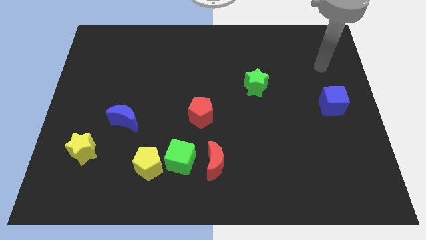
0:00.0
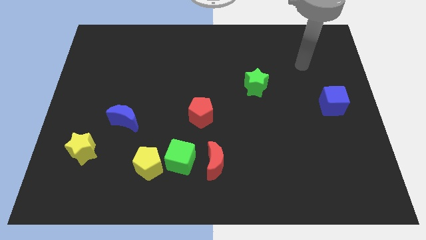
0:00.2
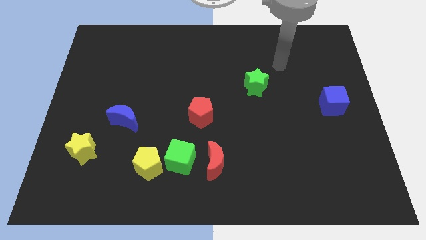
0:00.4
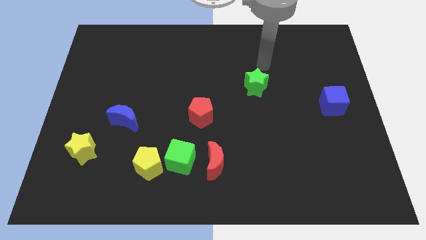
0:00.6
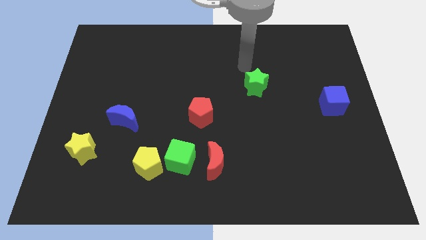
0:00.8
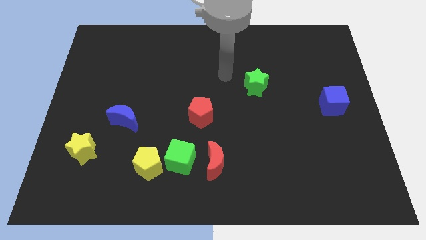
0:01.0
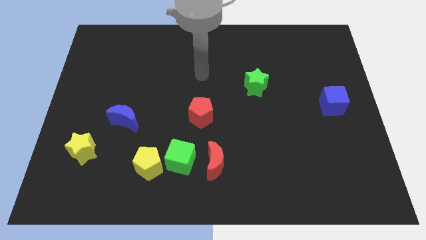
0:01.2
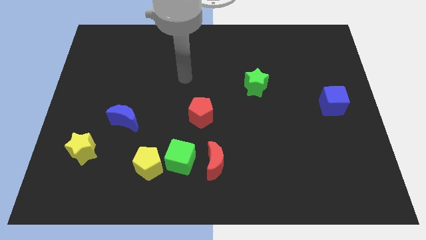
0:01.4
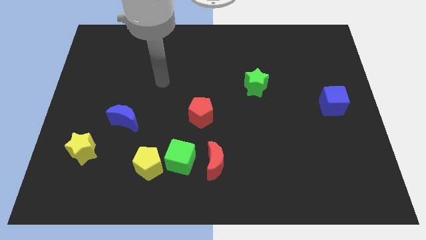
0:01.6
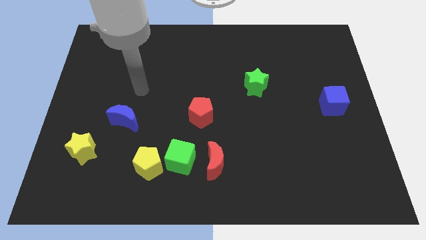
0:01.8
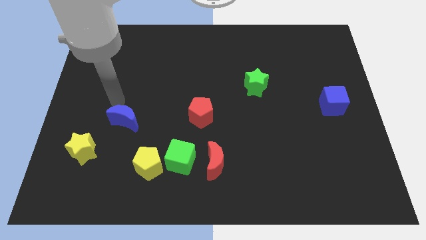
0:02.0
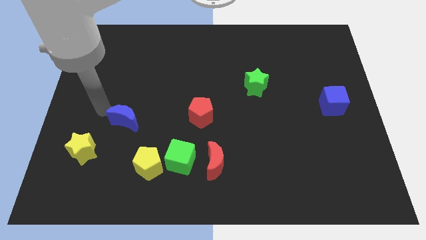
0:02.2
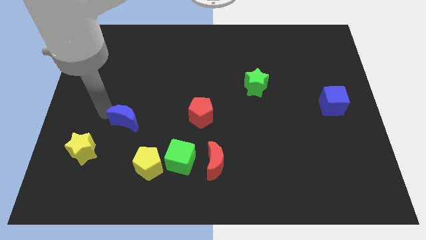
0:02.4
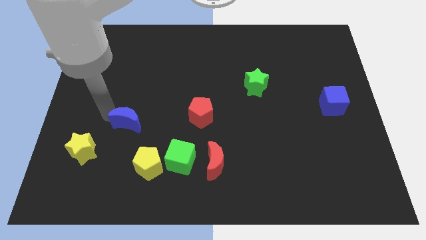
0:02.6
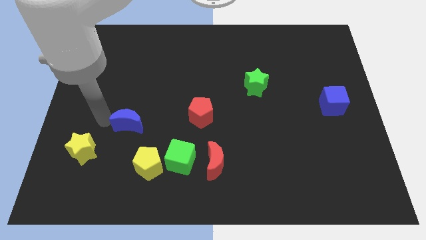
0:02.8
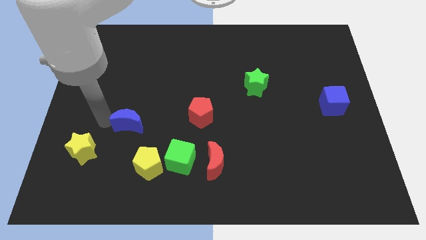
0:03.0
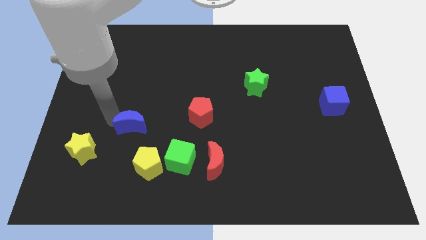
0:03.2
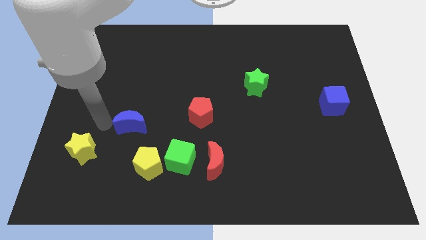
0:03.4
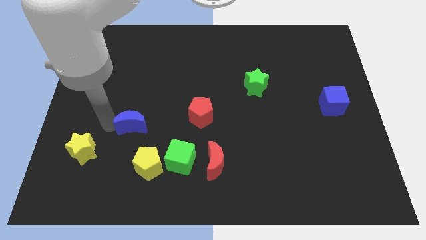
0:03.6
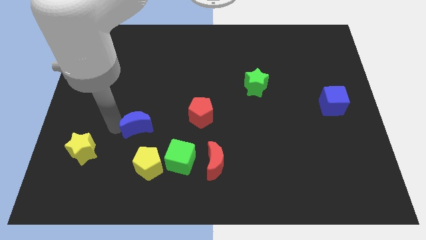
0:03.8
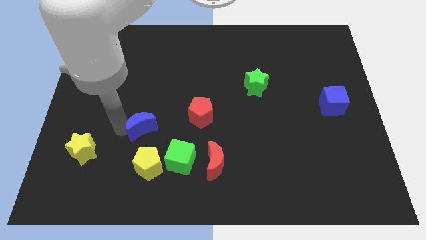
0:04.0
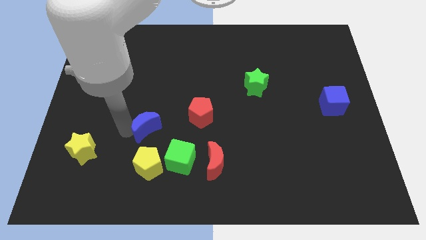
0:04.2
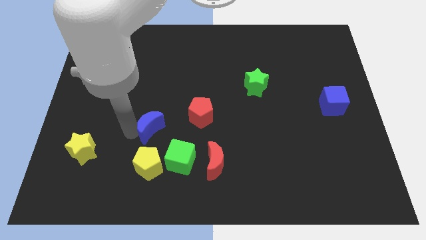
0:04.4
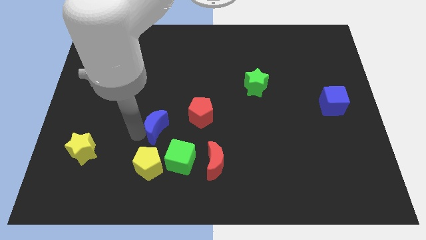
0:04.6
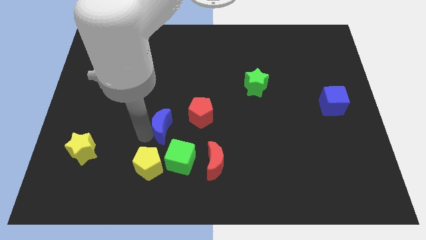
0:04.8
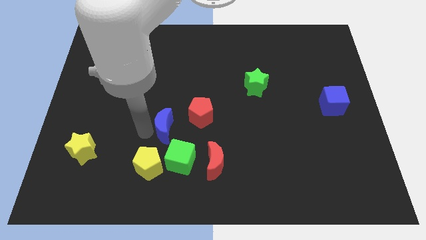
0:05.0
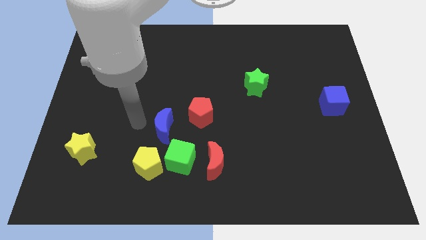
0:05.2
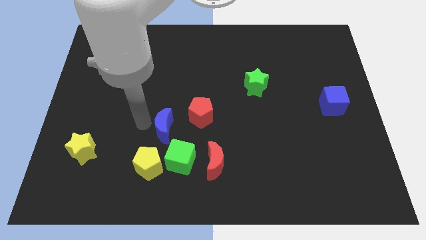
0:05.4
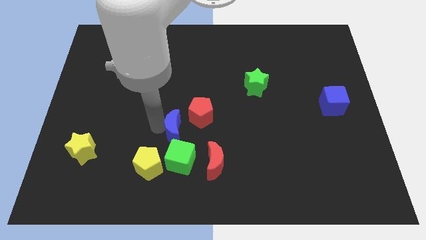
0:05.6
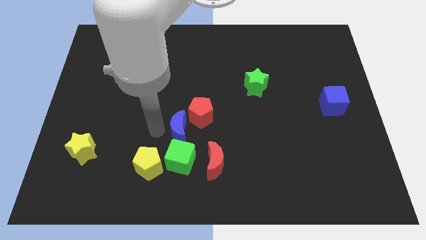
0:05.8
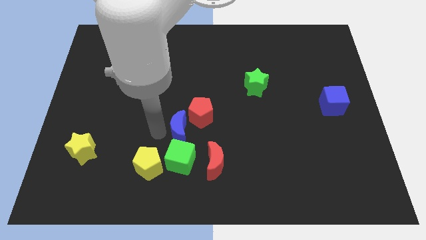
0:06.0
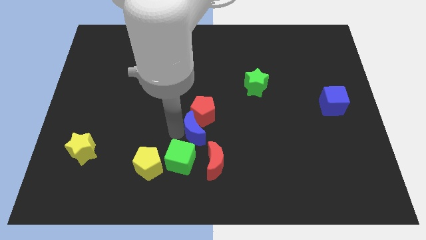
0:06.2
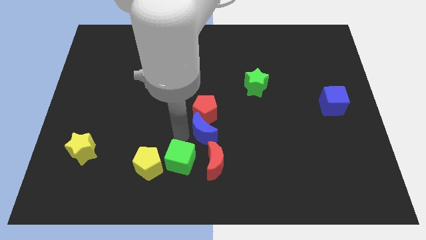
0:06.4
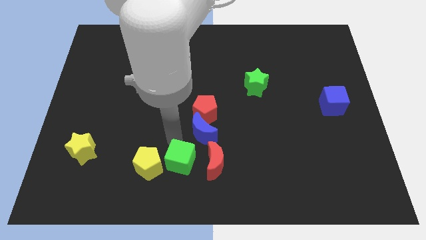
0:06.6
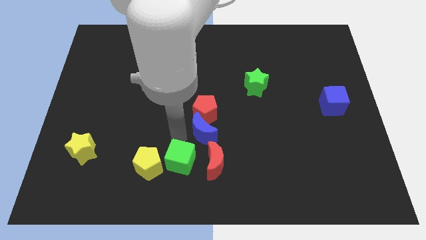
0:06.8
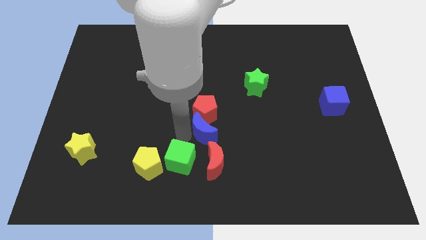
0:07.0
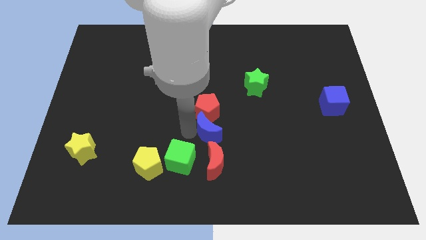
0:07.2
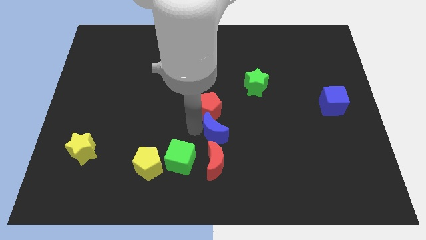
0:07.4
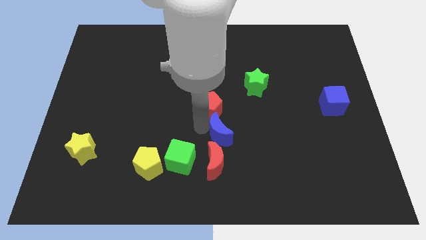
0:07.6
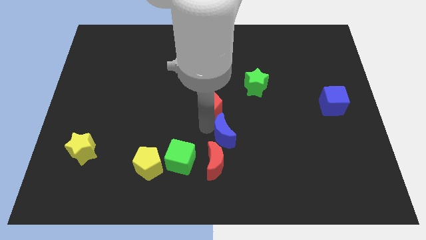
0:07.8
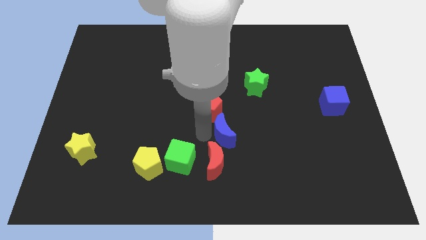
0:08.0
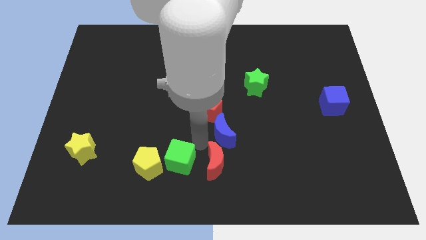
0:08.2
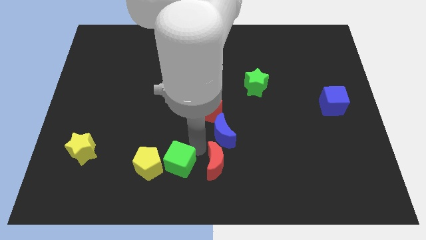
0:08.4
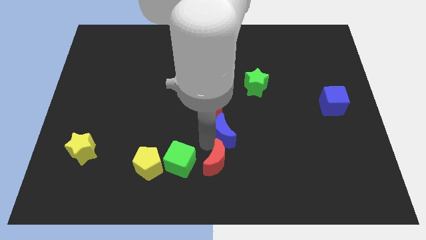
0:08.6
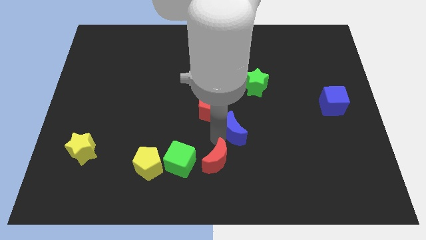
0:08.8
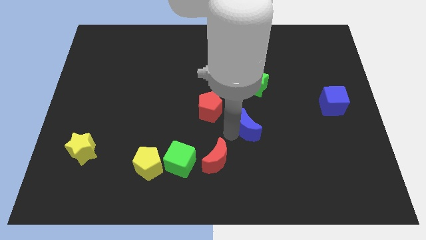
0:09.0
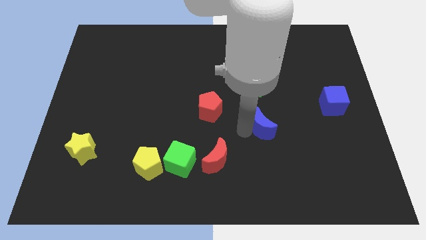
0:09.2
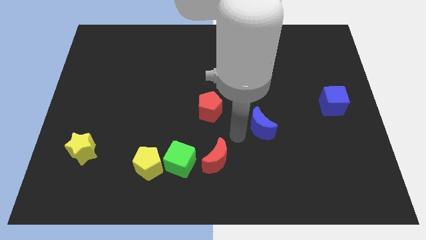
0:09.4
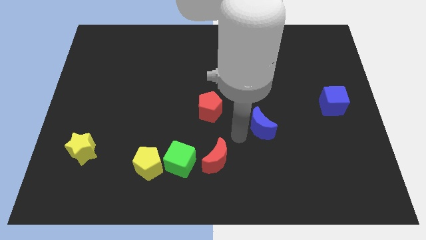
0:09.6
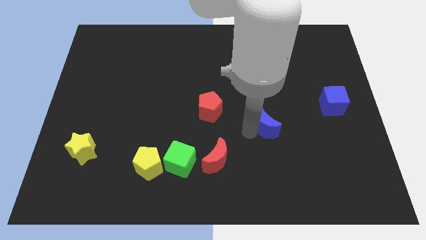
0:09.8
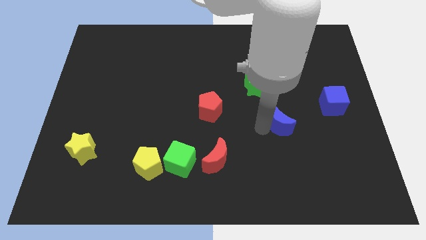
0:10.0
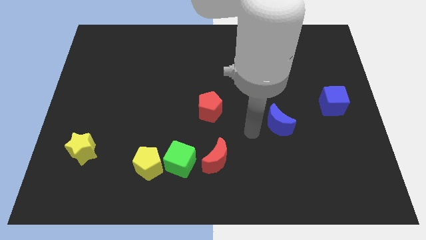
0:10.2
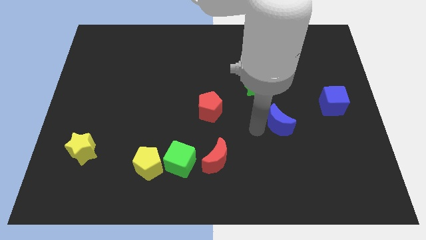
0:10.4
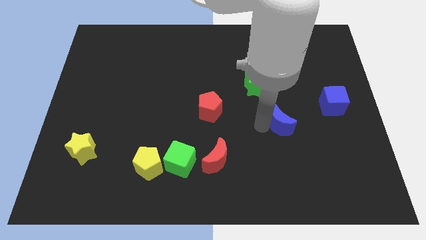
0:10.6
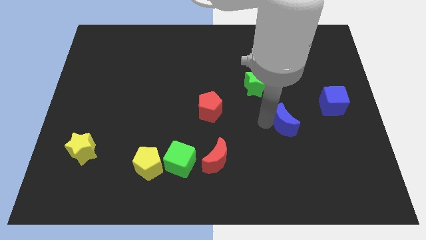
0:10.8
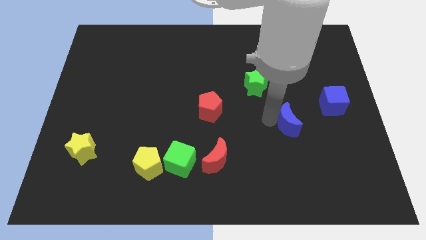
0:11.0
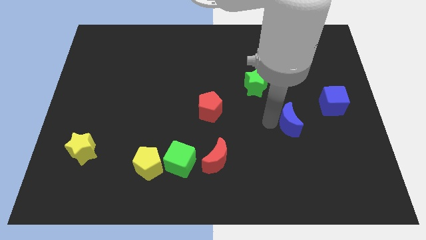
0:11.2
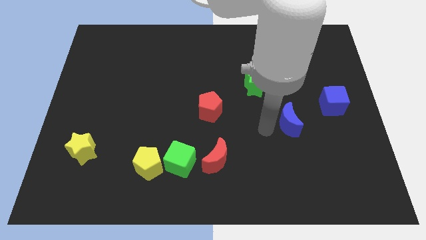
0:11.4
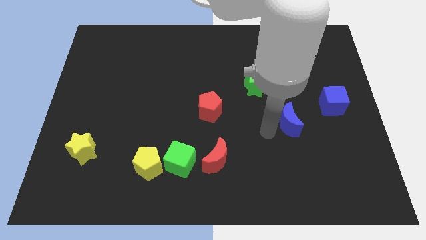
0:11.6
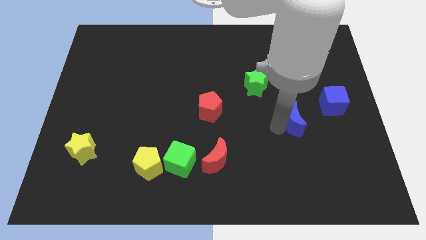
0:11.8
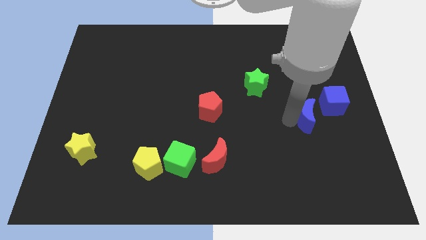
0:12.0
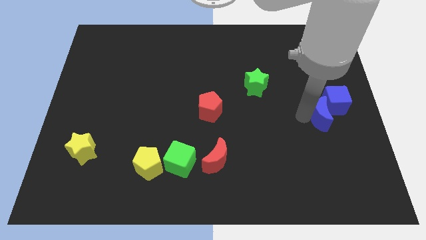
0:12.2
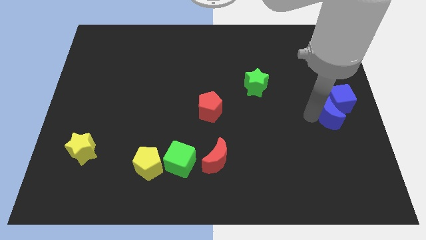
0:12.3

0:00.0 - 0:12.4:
slide the blue moon to the right side
